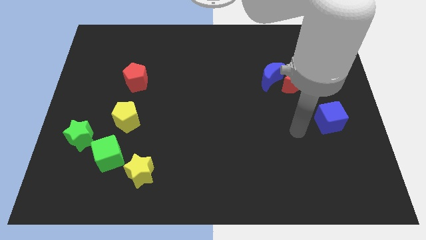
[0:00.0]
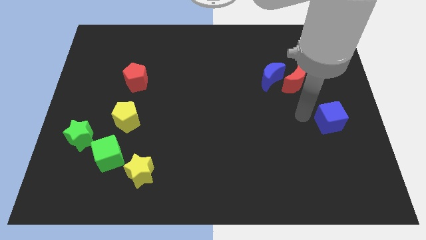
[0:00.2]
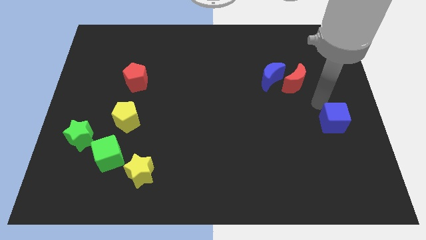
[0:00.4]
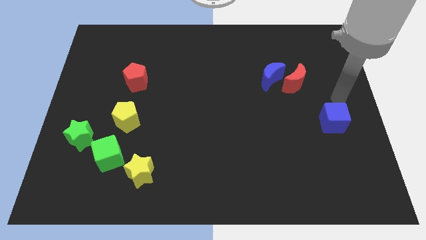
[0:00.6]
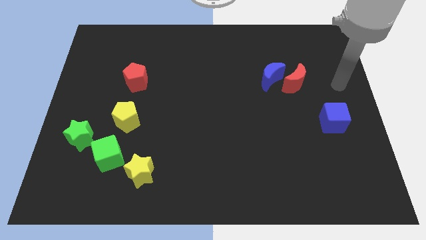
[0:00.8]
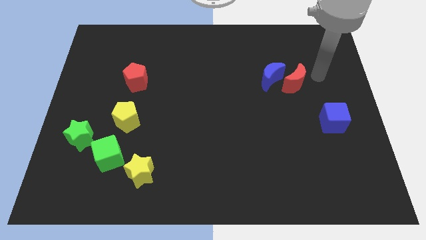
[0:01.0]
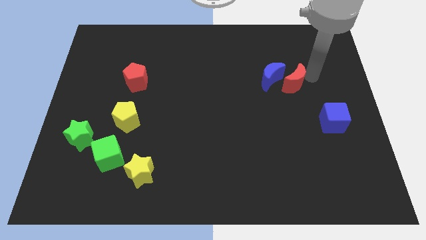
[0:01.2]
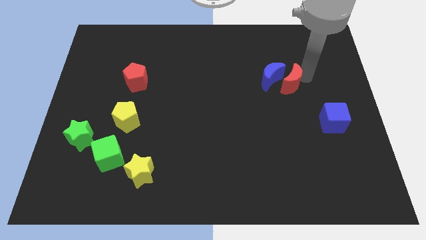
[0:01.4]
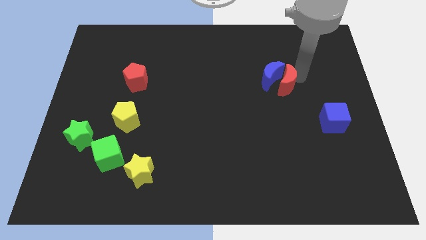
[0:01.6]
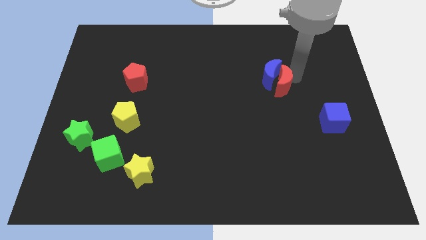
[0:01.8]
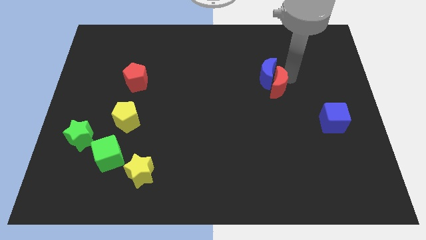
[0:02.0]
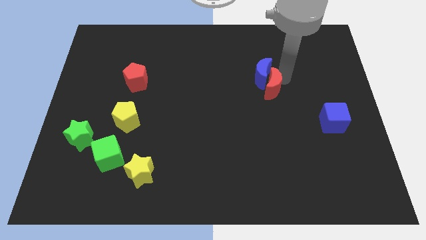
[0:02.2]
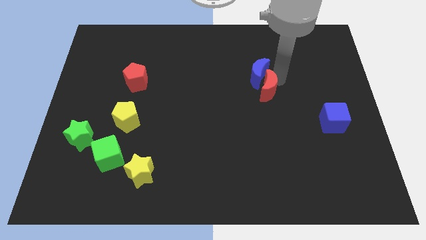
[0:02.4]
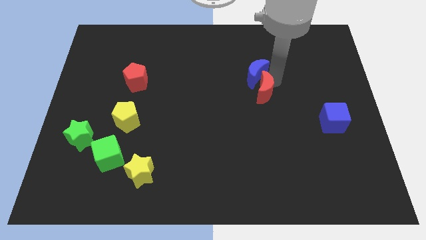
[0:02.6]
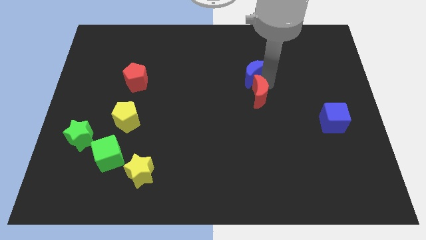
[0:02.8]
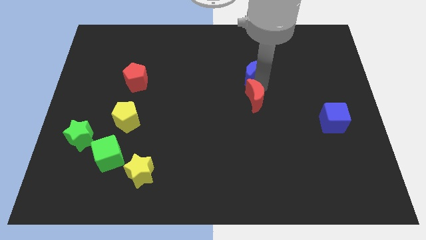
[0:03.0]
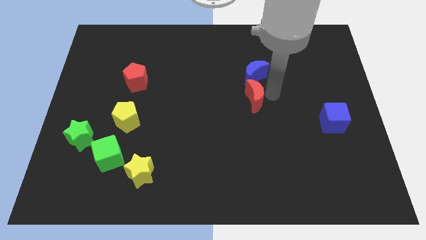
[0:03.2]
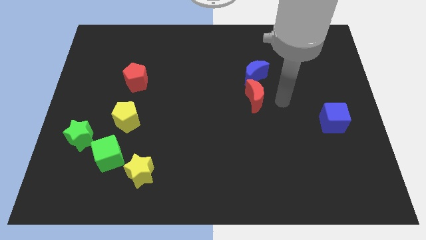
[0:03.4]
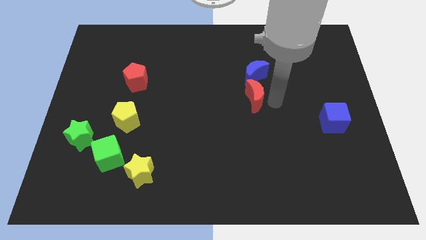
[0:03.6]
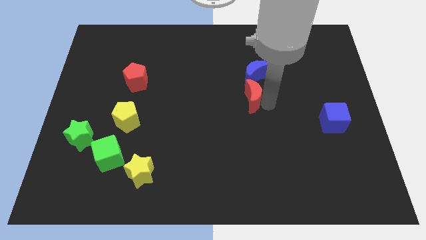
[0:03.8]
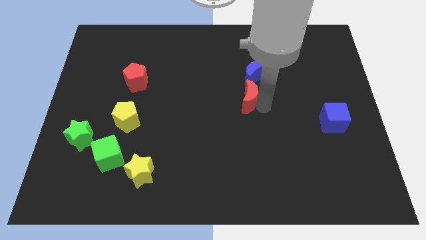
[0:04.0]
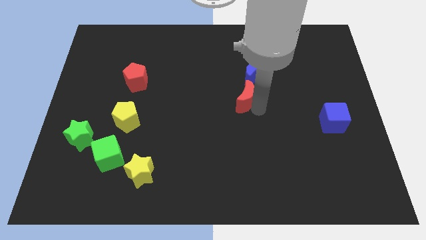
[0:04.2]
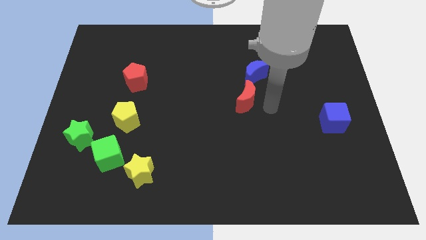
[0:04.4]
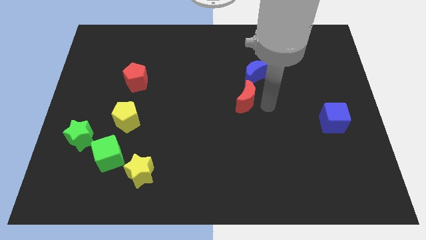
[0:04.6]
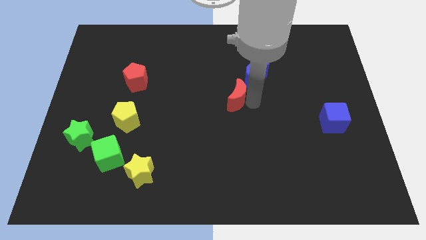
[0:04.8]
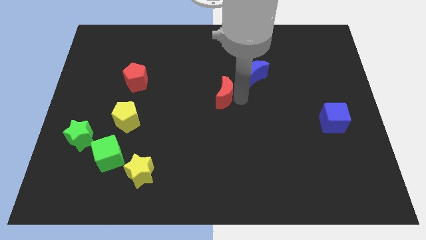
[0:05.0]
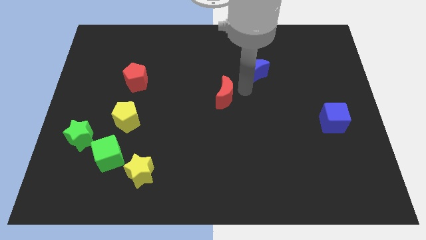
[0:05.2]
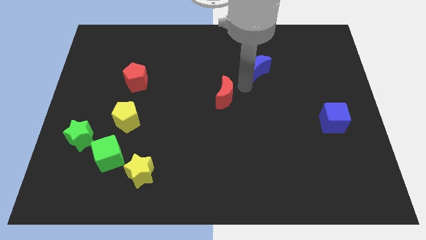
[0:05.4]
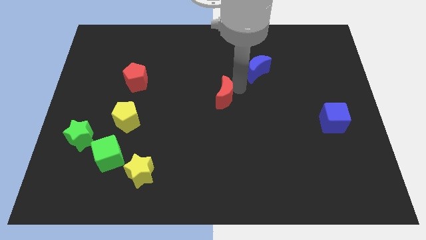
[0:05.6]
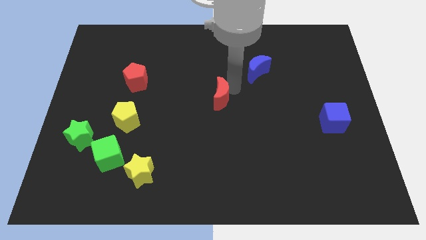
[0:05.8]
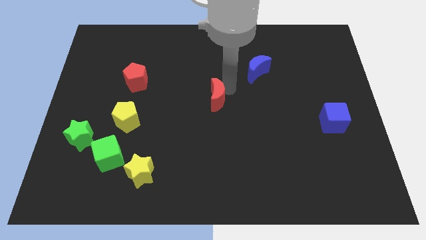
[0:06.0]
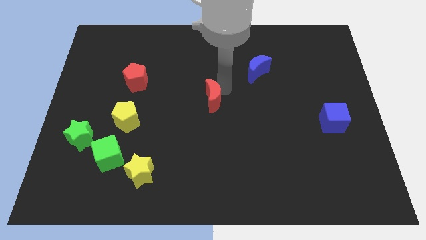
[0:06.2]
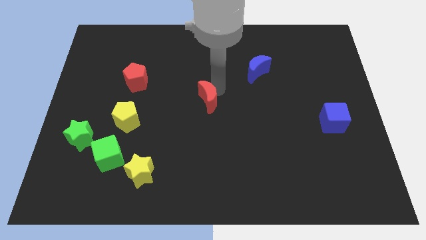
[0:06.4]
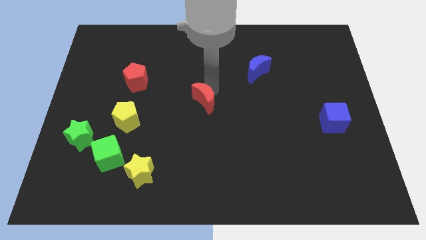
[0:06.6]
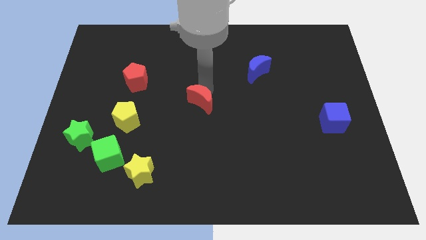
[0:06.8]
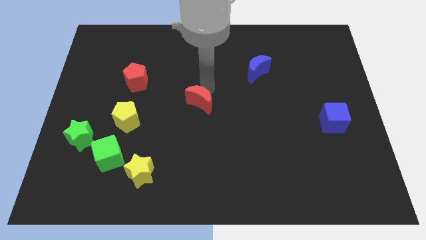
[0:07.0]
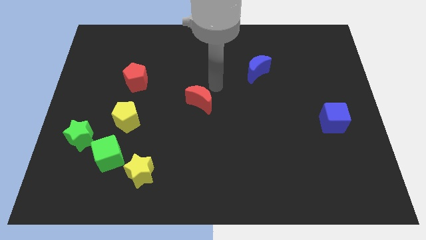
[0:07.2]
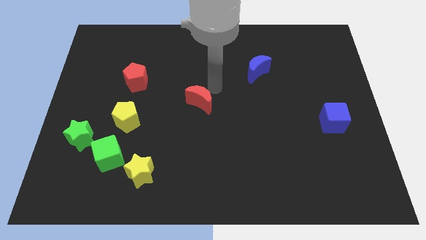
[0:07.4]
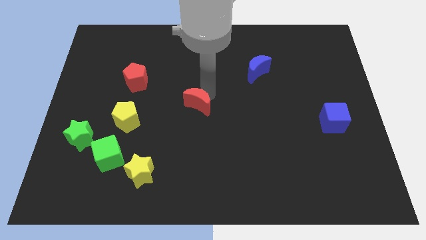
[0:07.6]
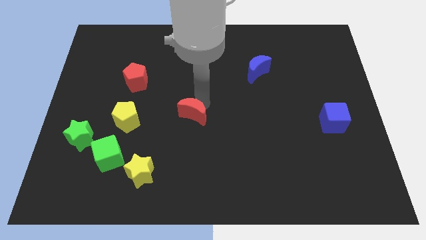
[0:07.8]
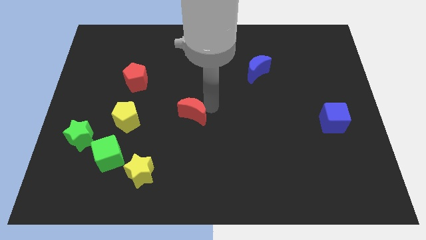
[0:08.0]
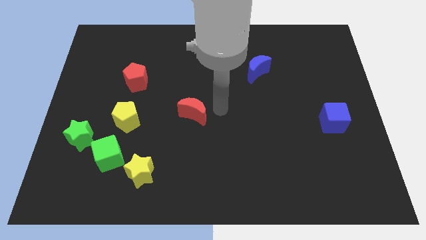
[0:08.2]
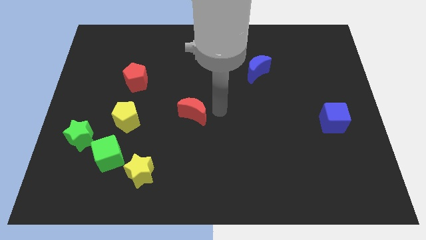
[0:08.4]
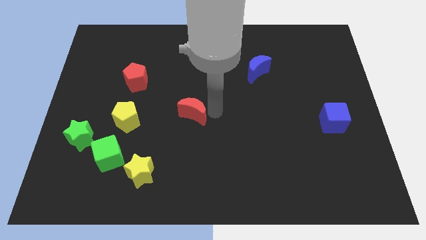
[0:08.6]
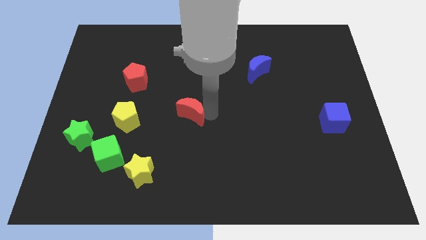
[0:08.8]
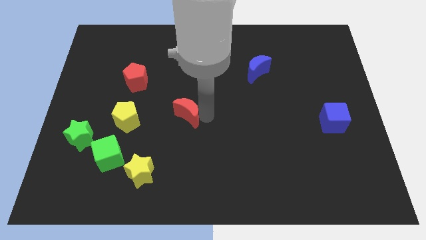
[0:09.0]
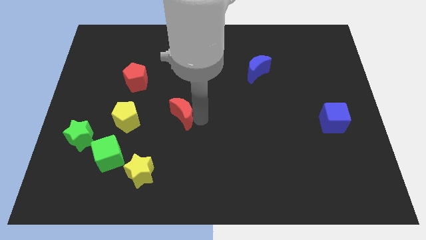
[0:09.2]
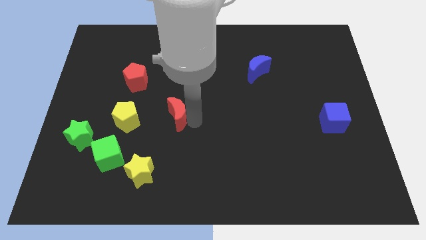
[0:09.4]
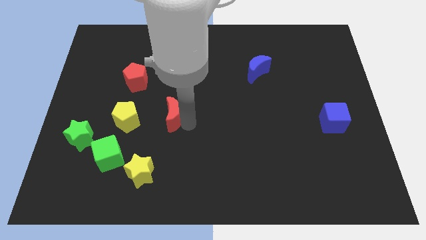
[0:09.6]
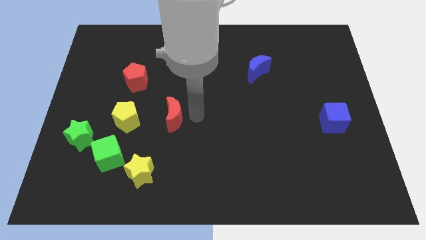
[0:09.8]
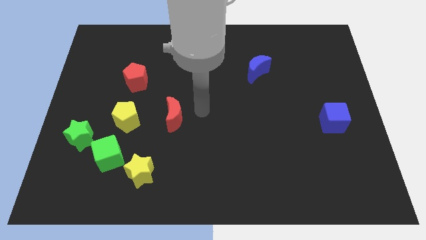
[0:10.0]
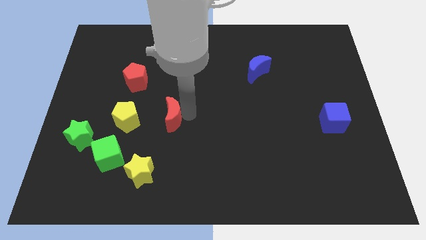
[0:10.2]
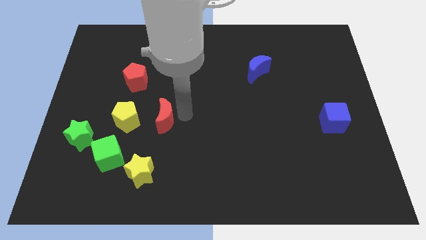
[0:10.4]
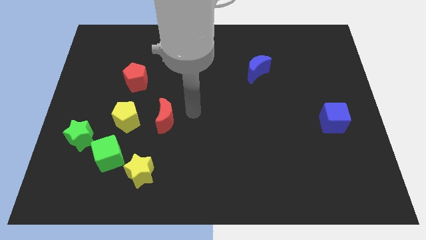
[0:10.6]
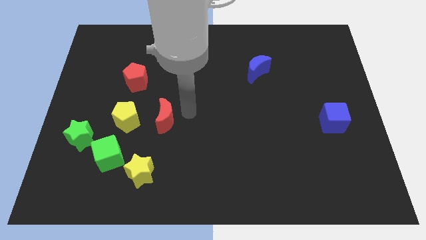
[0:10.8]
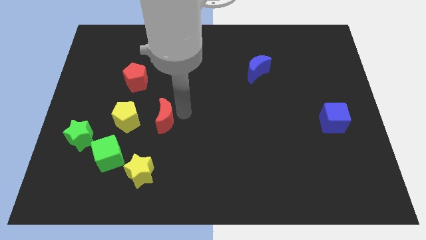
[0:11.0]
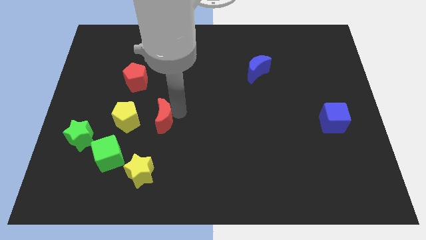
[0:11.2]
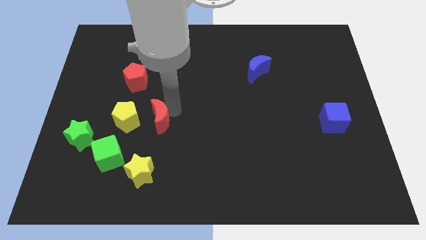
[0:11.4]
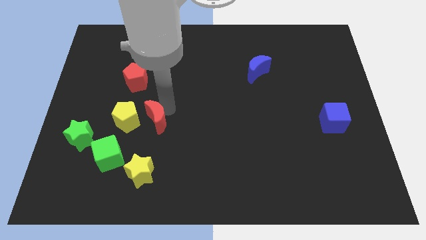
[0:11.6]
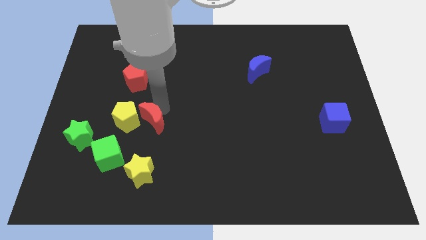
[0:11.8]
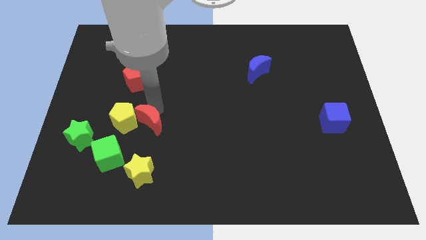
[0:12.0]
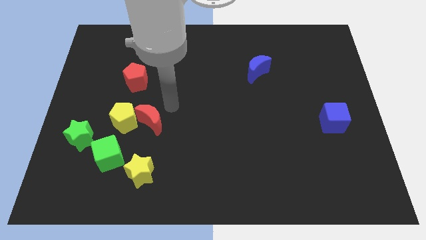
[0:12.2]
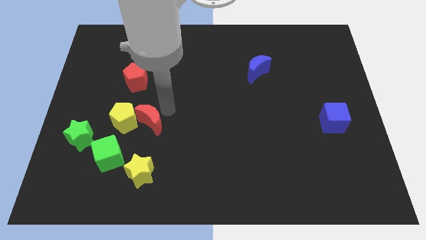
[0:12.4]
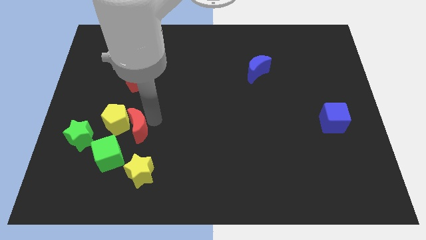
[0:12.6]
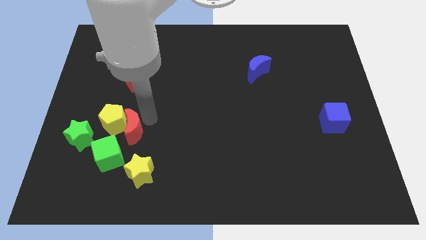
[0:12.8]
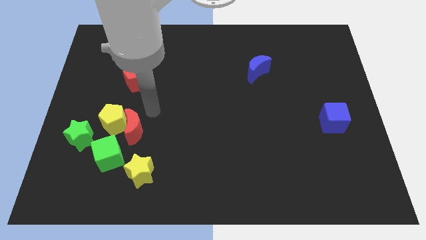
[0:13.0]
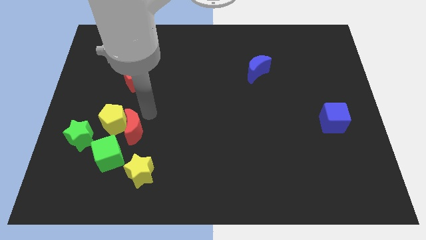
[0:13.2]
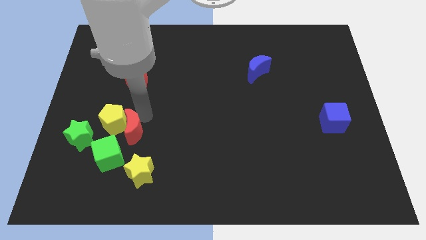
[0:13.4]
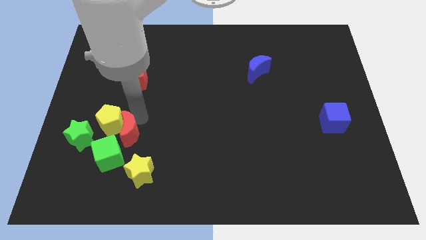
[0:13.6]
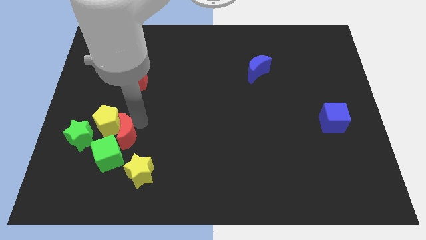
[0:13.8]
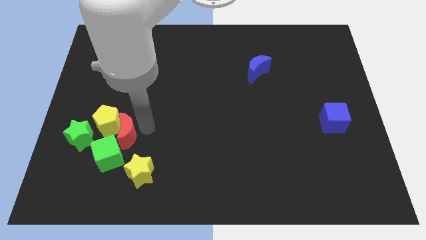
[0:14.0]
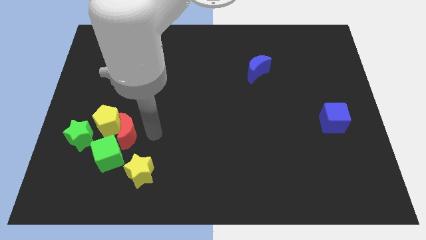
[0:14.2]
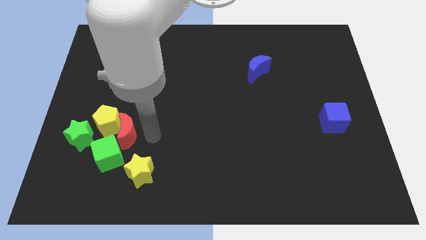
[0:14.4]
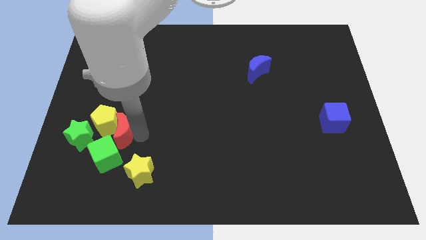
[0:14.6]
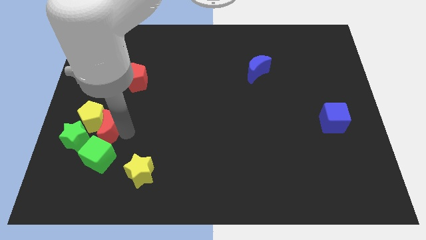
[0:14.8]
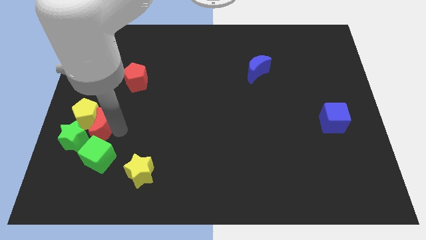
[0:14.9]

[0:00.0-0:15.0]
push the red moon to the green star
